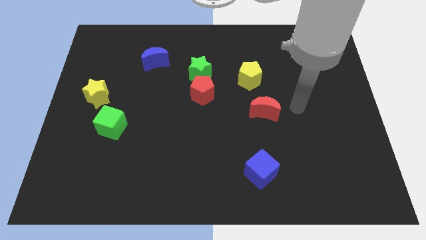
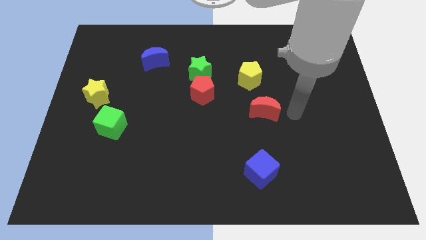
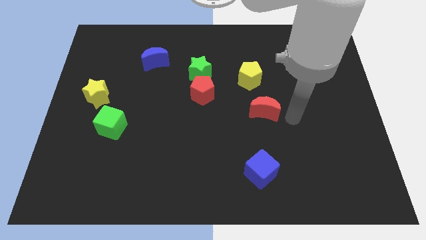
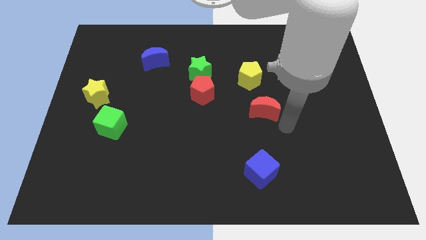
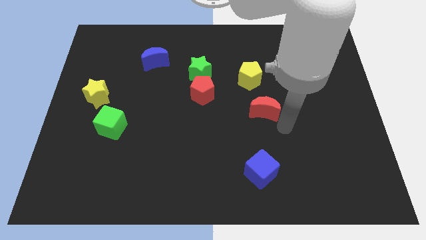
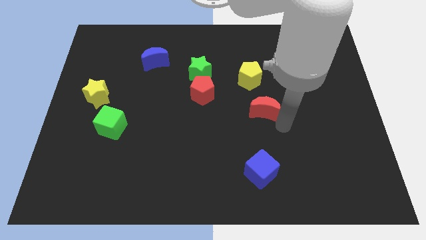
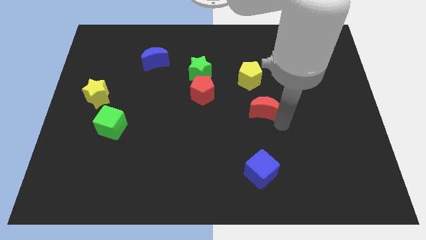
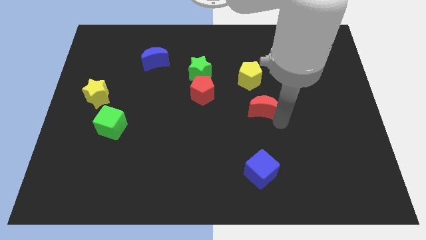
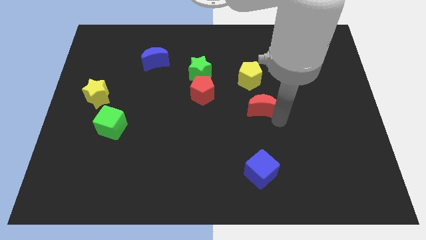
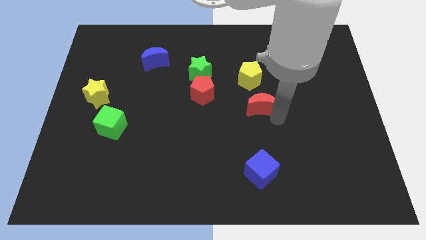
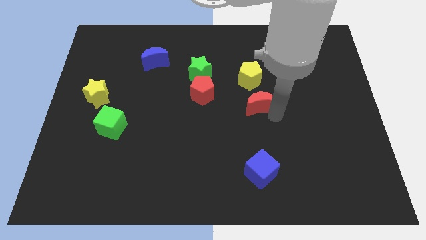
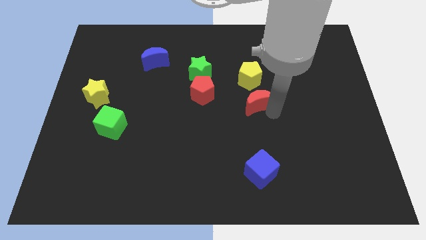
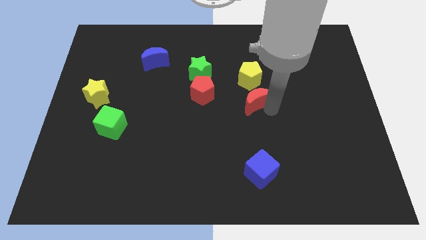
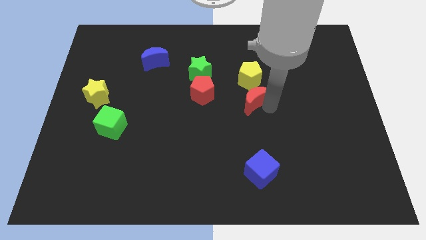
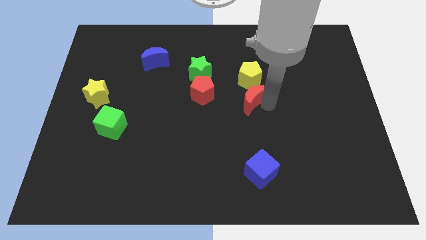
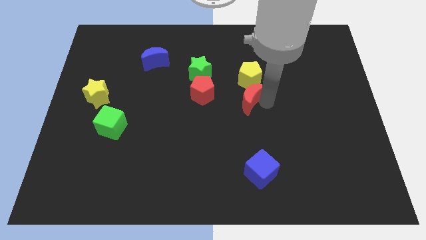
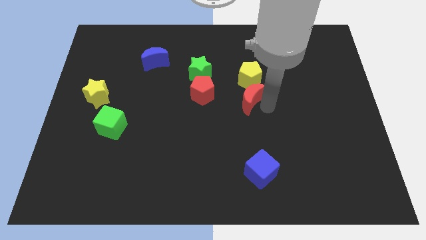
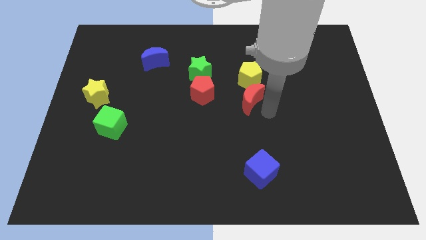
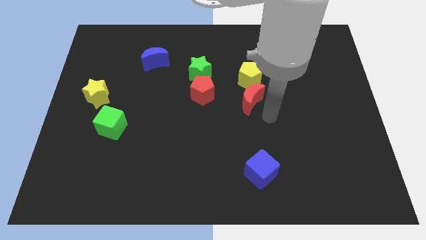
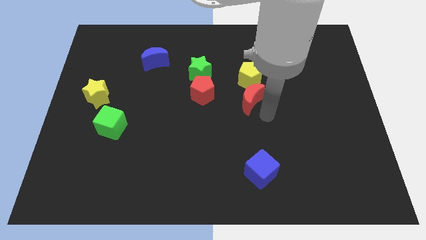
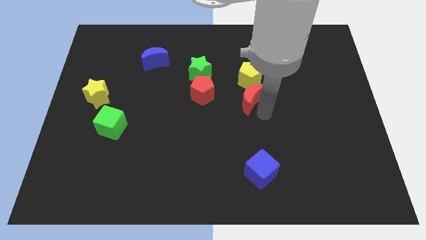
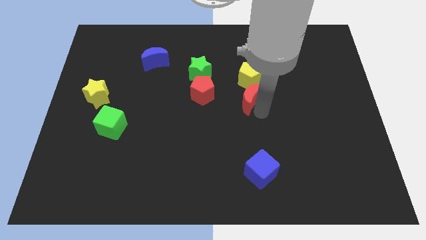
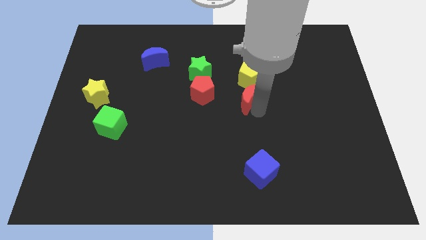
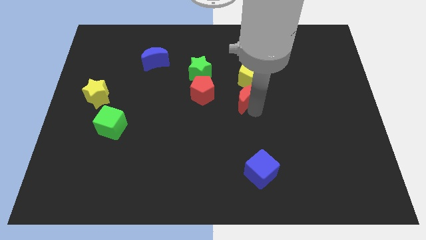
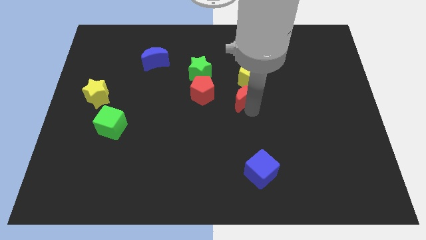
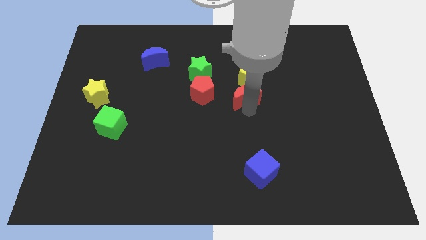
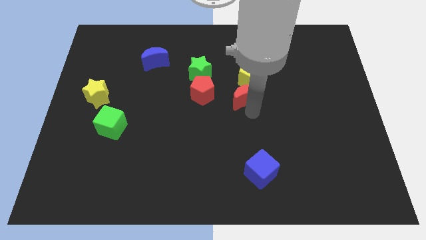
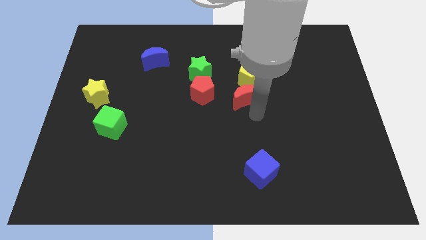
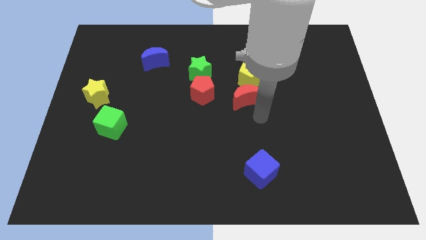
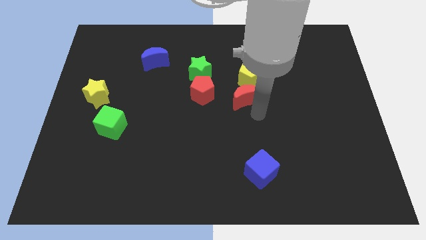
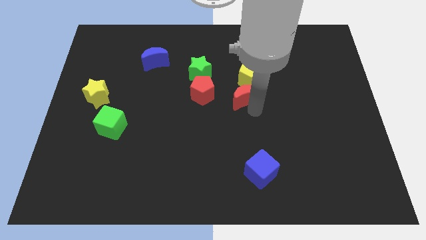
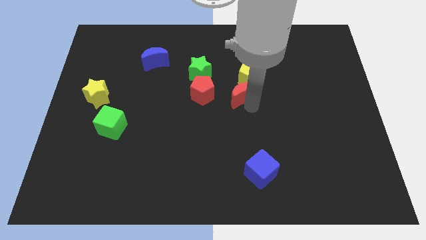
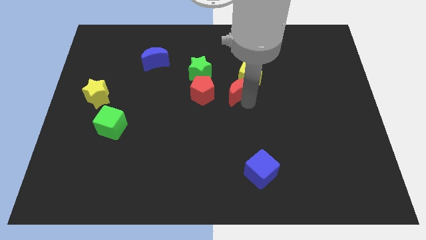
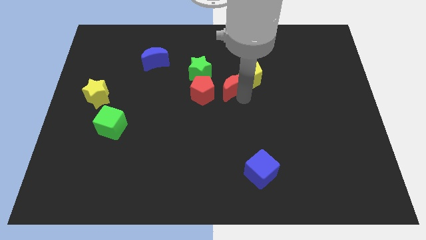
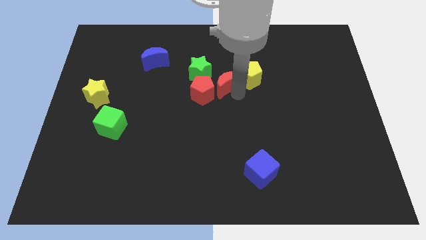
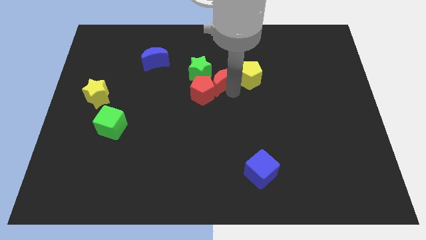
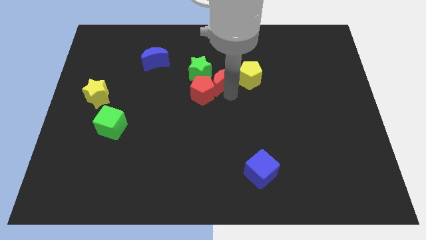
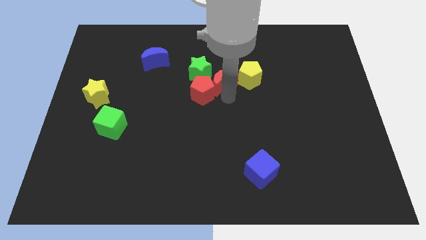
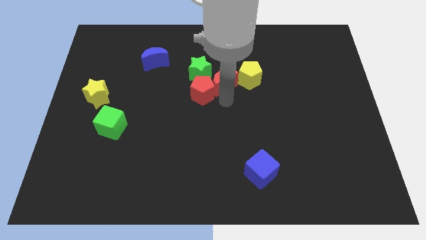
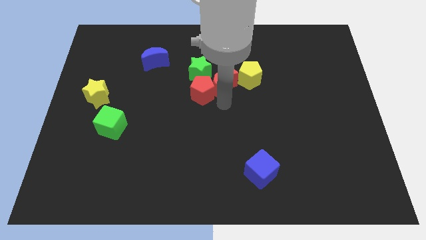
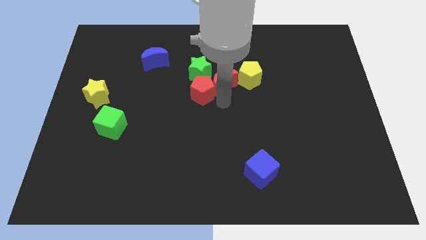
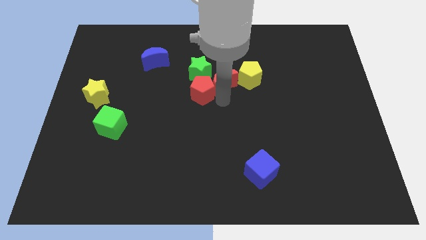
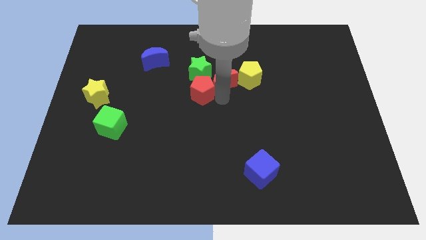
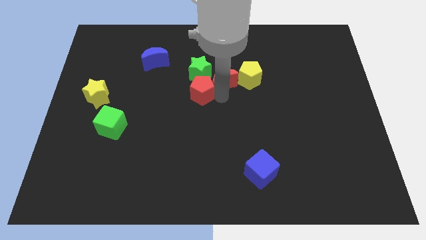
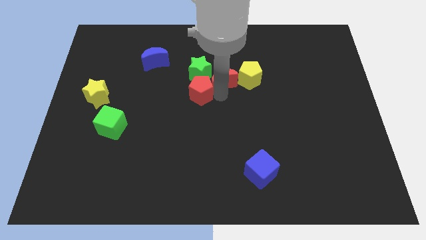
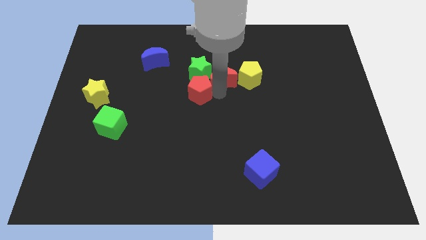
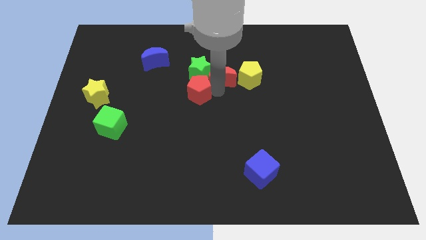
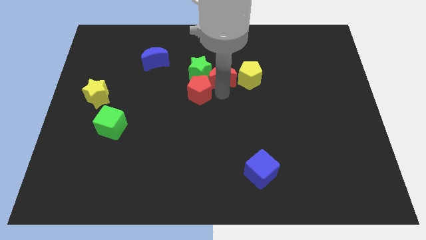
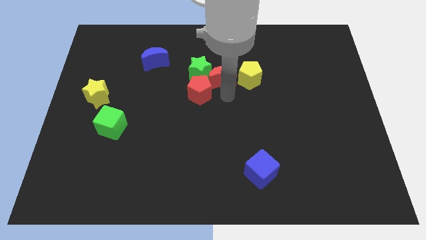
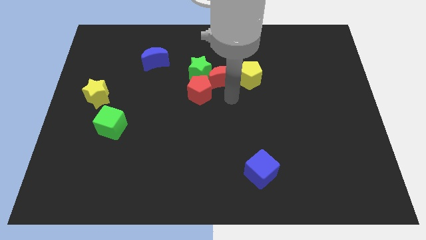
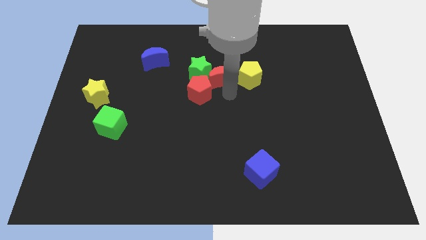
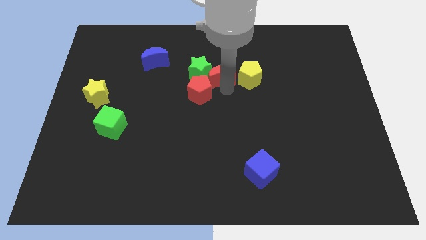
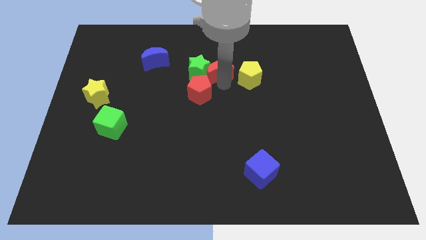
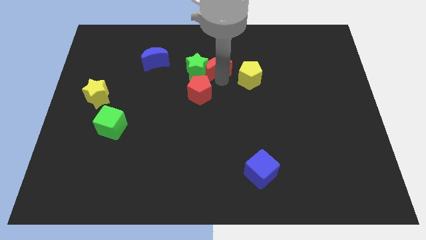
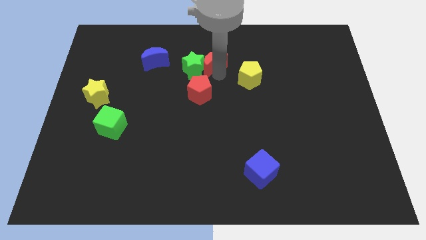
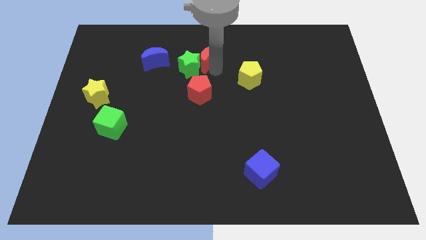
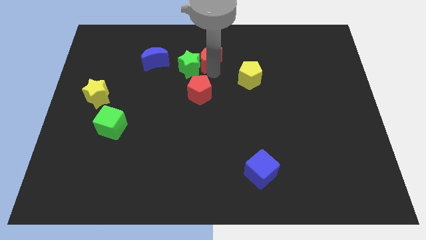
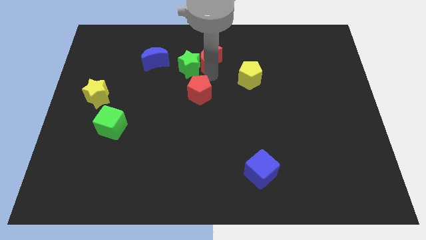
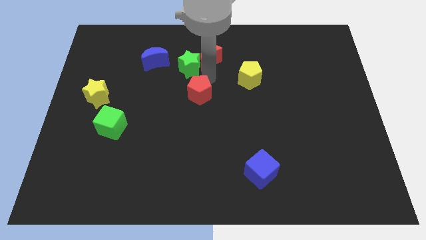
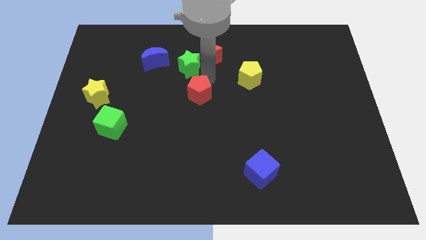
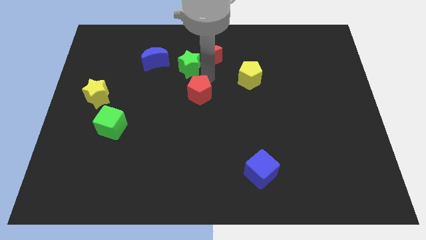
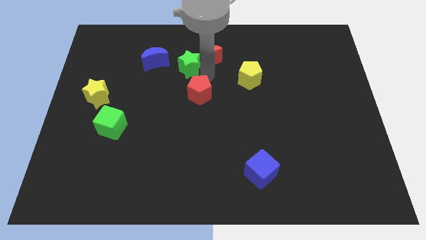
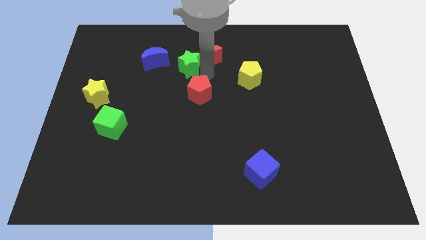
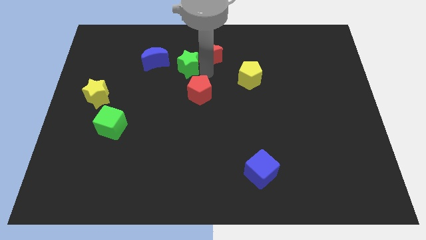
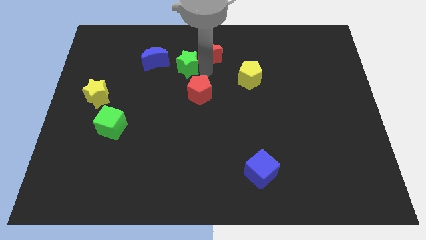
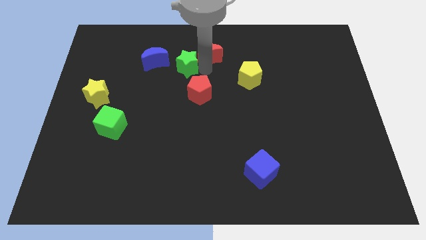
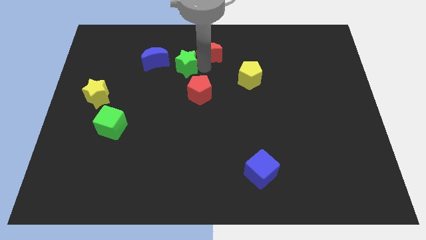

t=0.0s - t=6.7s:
push the red moon to the towards your base
